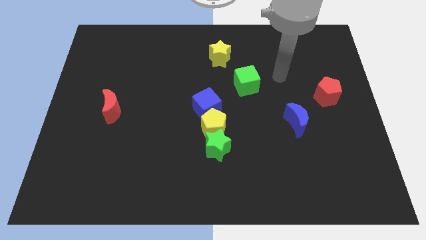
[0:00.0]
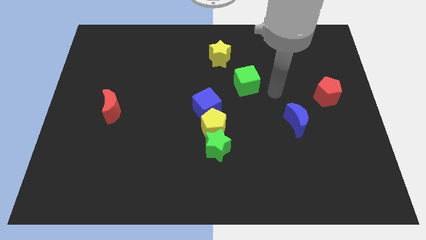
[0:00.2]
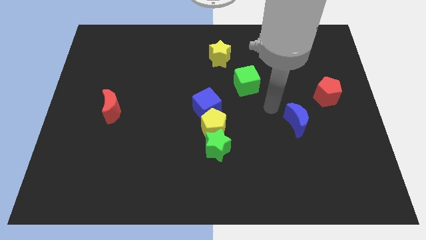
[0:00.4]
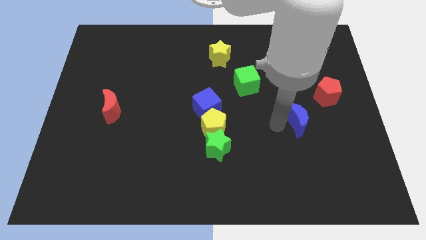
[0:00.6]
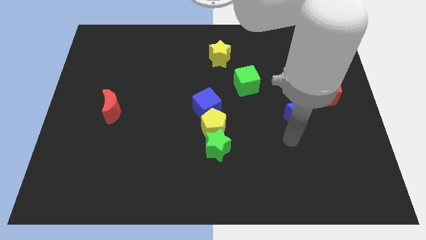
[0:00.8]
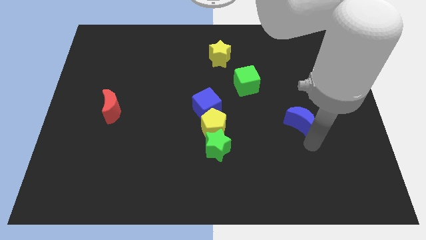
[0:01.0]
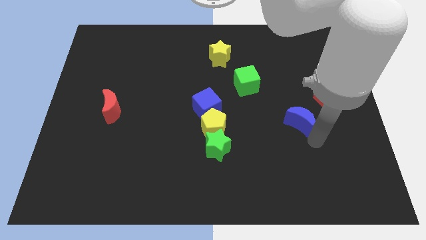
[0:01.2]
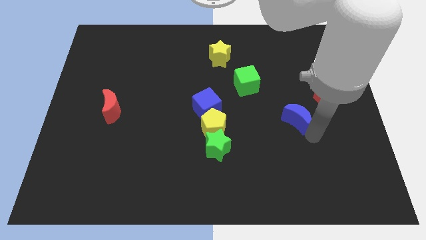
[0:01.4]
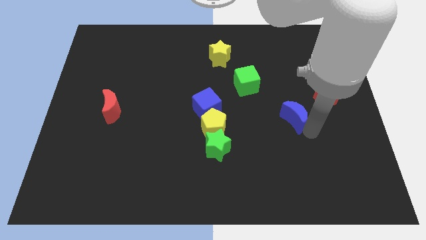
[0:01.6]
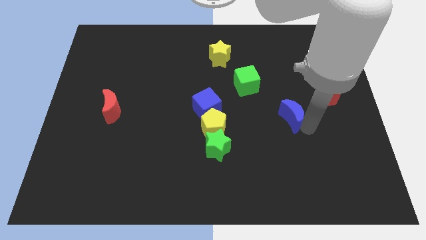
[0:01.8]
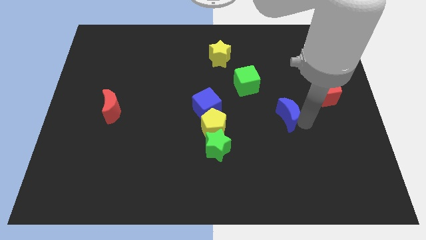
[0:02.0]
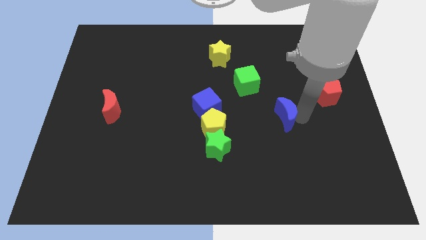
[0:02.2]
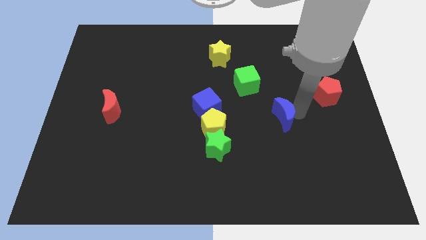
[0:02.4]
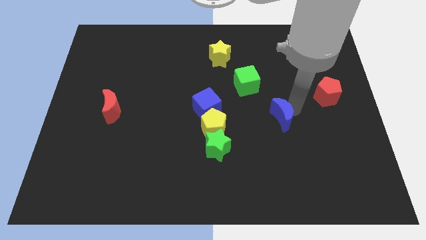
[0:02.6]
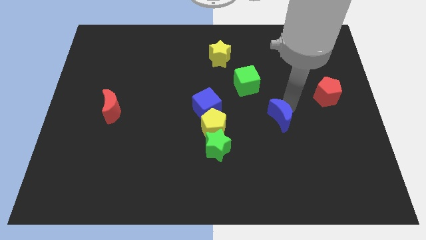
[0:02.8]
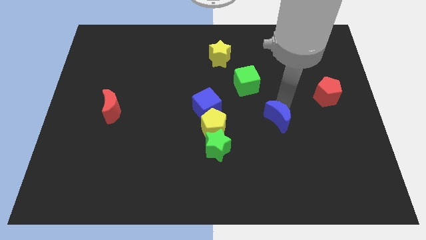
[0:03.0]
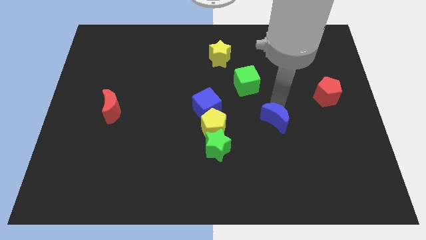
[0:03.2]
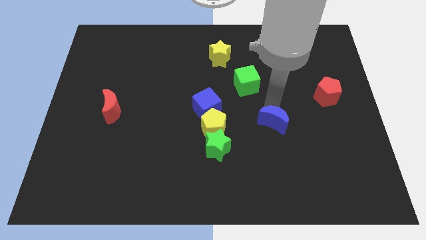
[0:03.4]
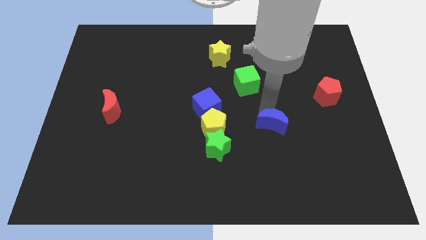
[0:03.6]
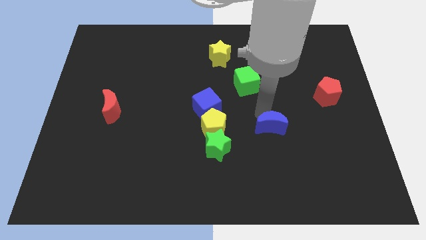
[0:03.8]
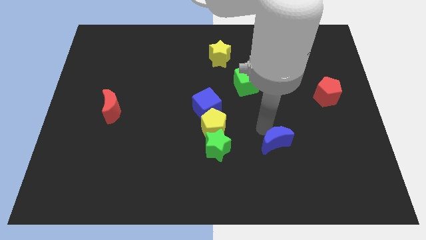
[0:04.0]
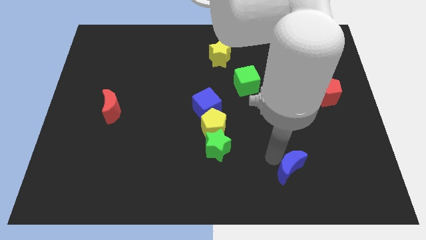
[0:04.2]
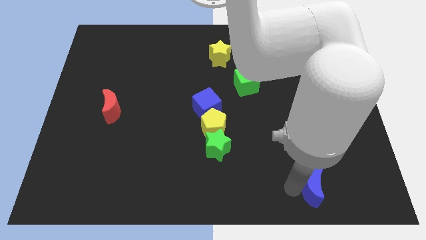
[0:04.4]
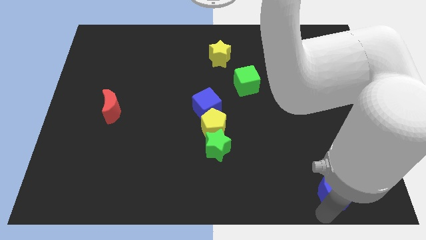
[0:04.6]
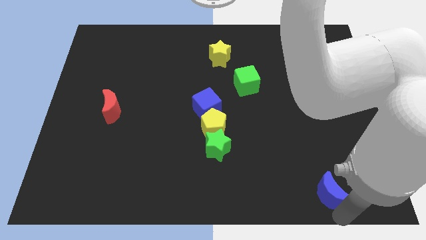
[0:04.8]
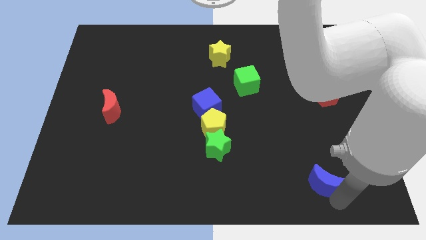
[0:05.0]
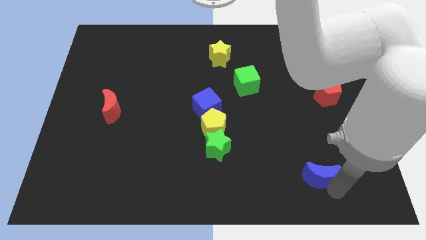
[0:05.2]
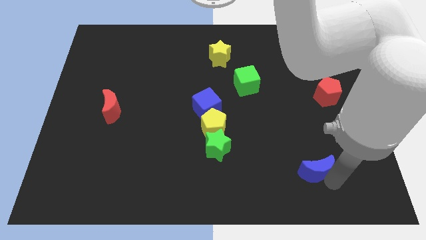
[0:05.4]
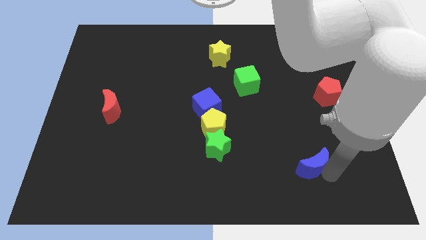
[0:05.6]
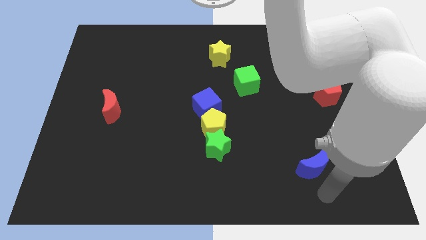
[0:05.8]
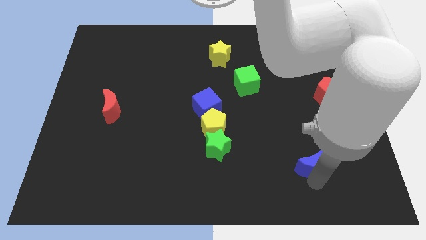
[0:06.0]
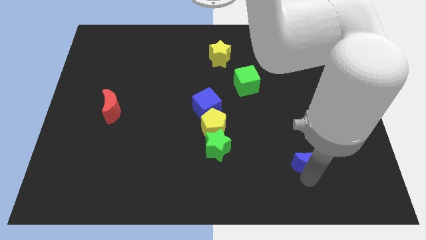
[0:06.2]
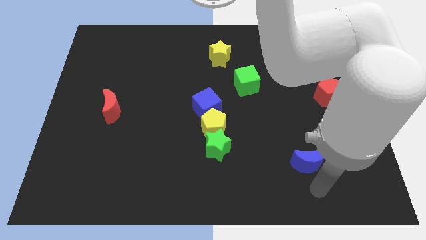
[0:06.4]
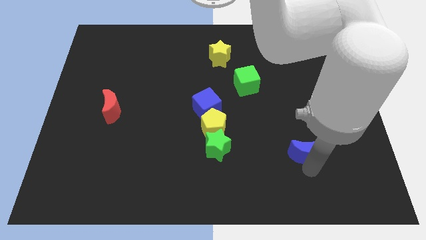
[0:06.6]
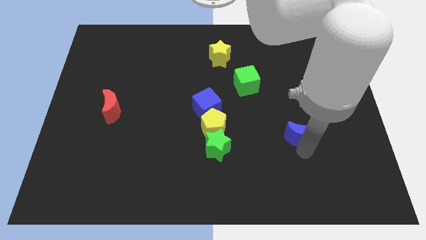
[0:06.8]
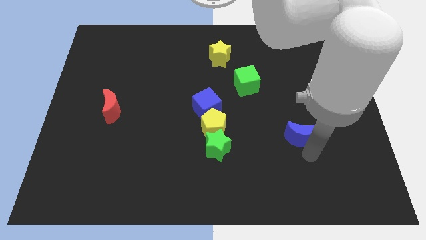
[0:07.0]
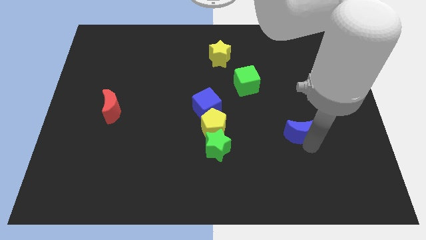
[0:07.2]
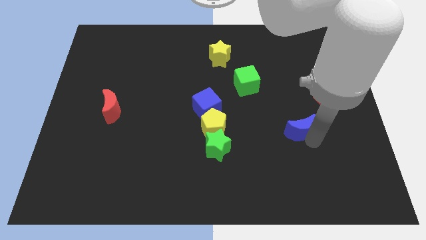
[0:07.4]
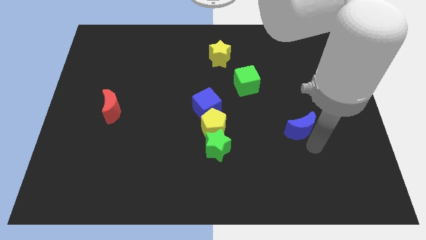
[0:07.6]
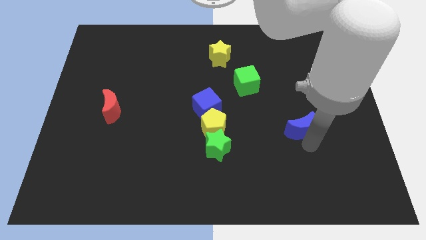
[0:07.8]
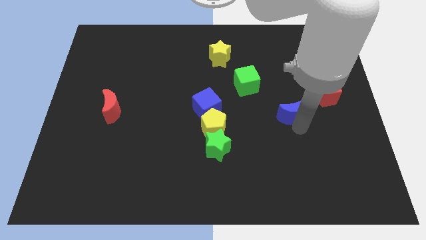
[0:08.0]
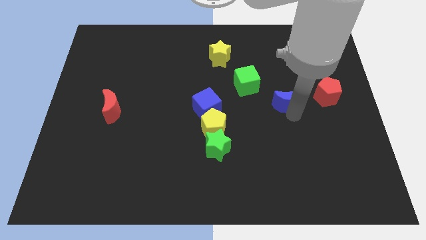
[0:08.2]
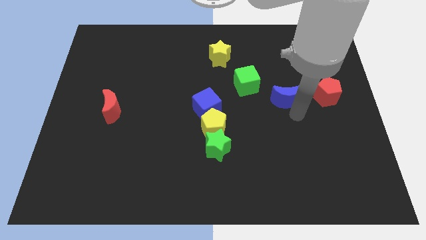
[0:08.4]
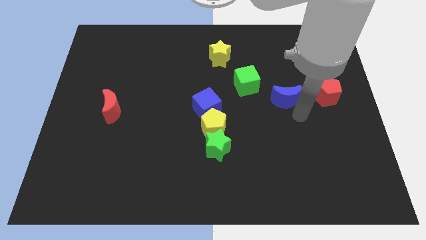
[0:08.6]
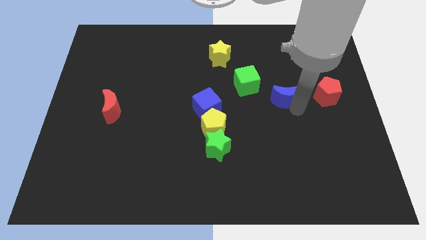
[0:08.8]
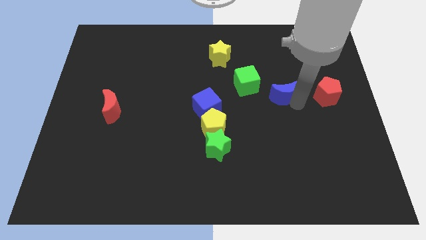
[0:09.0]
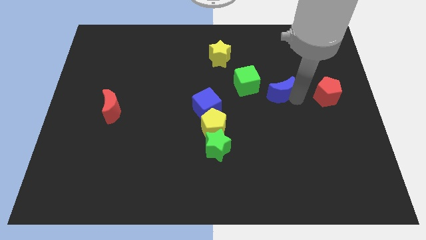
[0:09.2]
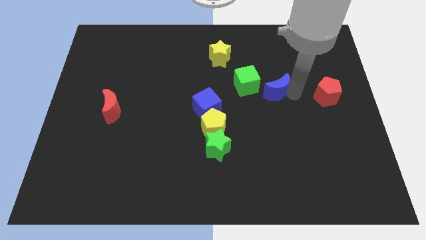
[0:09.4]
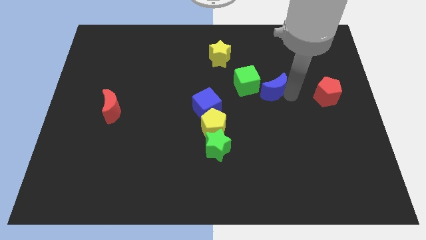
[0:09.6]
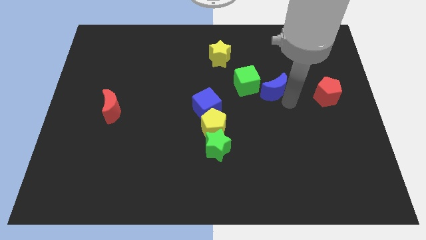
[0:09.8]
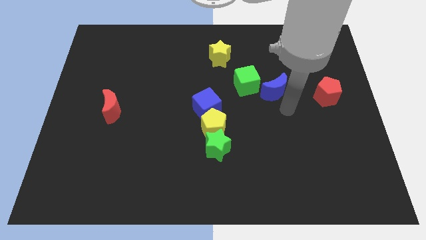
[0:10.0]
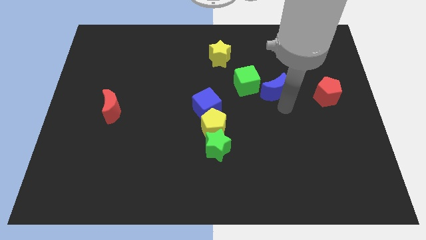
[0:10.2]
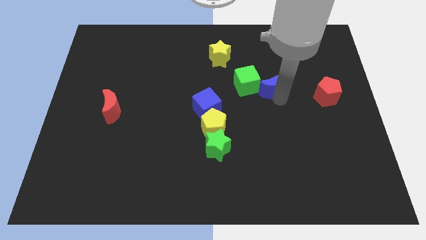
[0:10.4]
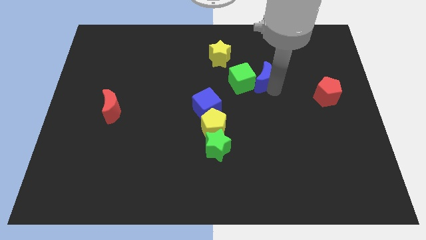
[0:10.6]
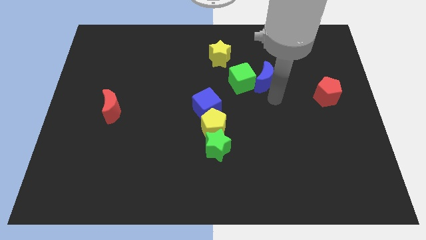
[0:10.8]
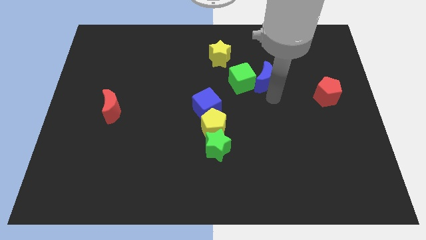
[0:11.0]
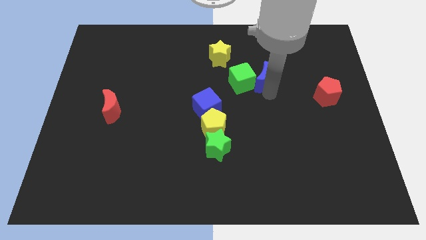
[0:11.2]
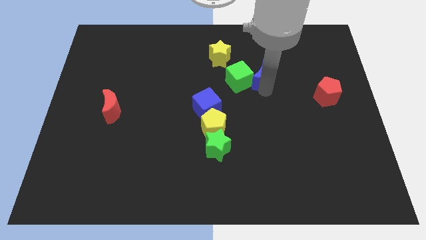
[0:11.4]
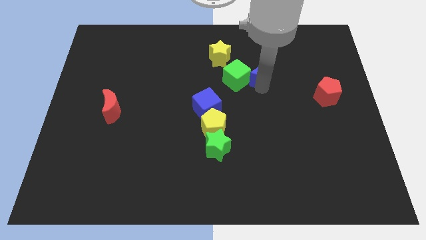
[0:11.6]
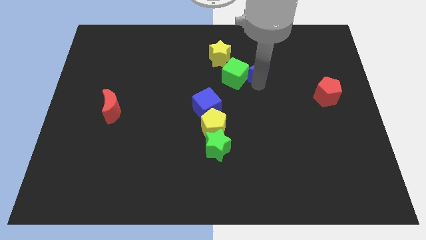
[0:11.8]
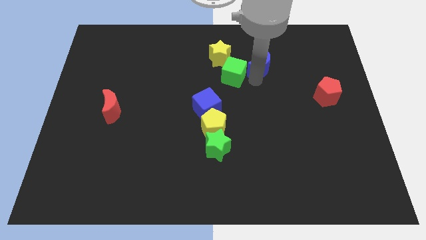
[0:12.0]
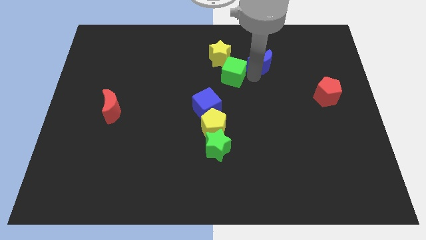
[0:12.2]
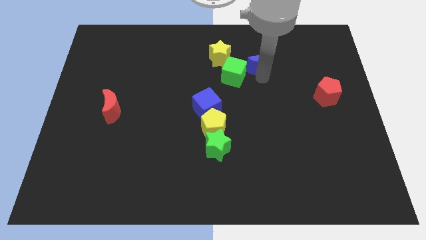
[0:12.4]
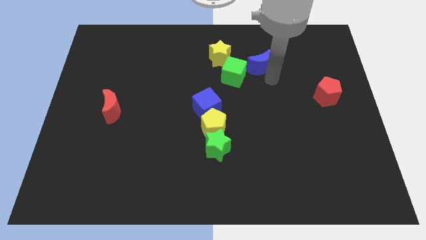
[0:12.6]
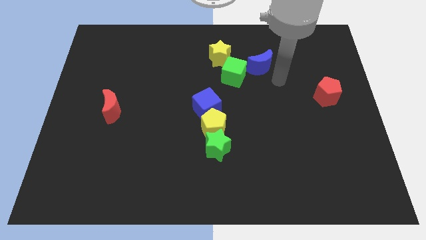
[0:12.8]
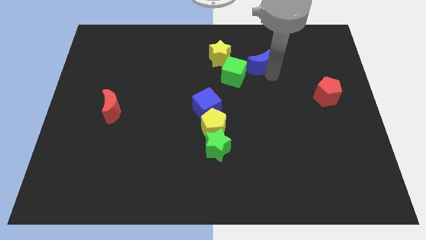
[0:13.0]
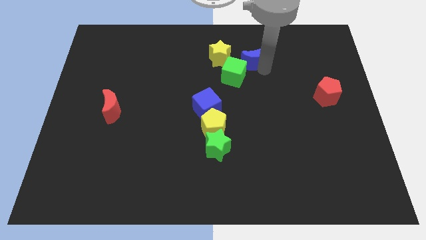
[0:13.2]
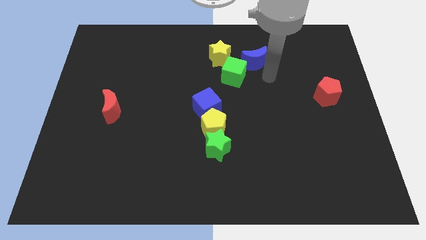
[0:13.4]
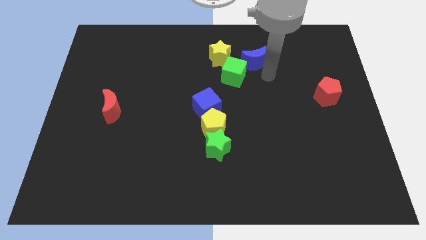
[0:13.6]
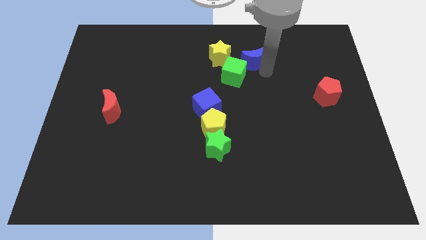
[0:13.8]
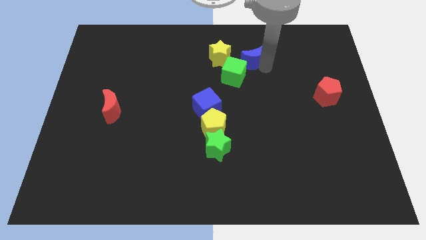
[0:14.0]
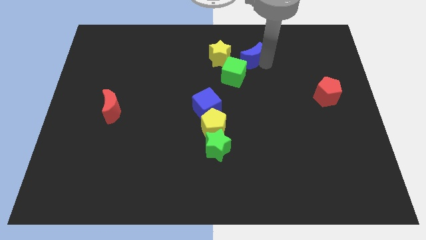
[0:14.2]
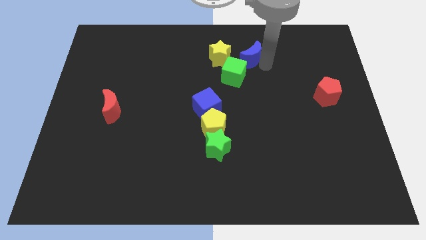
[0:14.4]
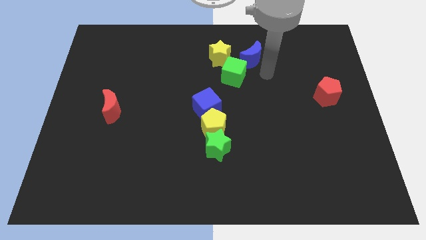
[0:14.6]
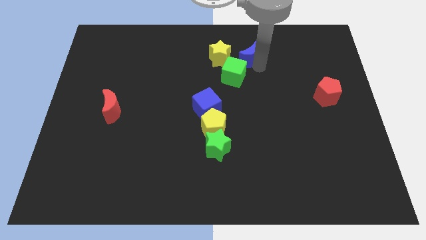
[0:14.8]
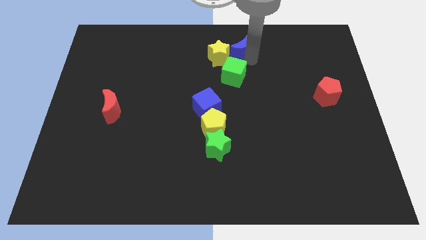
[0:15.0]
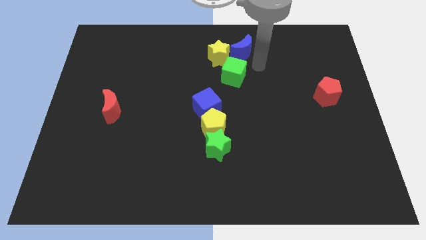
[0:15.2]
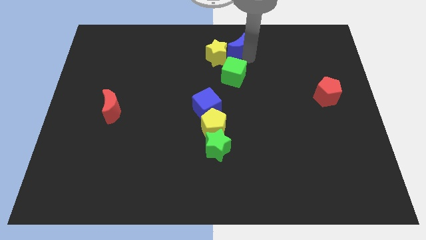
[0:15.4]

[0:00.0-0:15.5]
slide the blue moon to the top side
